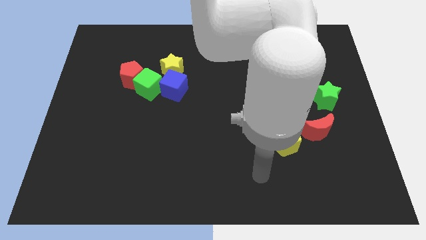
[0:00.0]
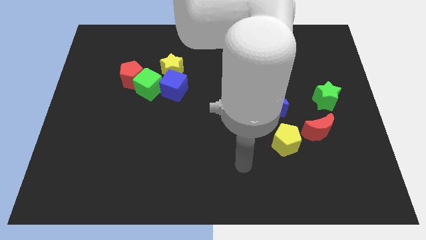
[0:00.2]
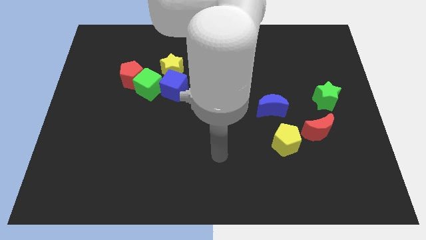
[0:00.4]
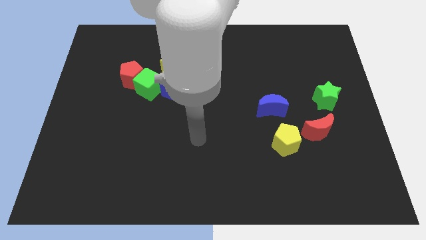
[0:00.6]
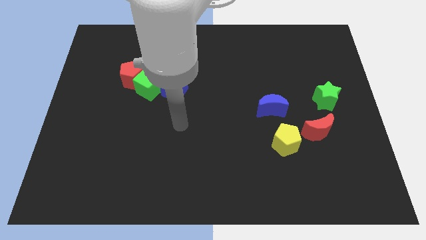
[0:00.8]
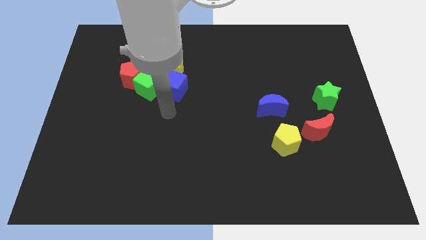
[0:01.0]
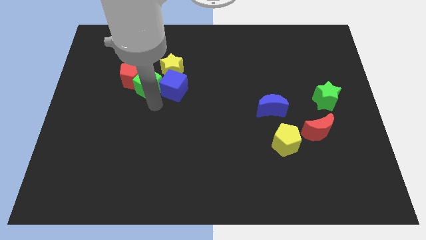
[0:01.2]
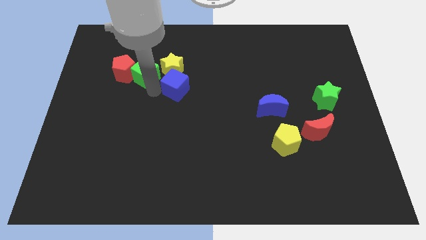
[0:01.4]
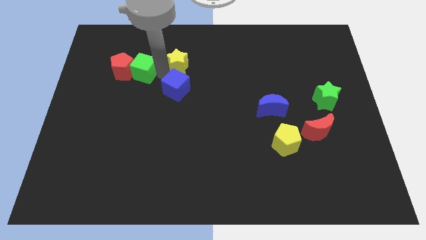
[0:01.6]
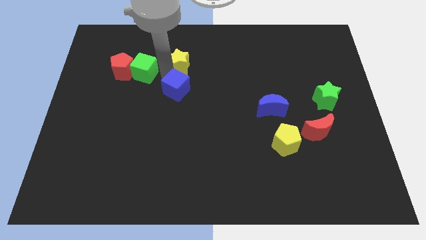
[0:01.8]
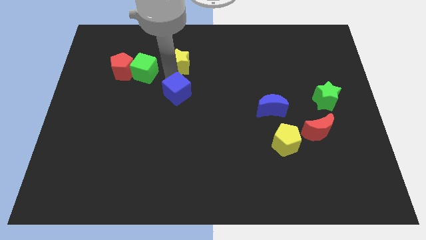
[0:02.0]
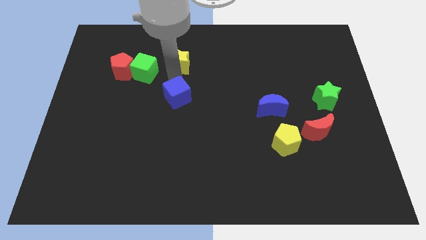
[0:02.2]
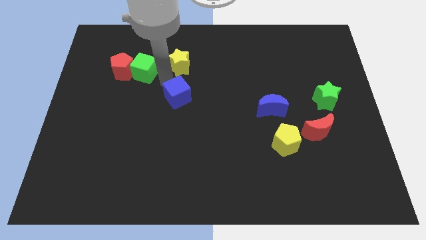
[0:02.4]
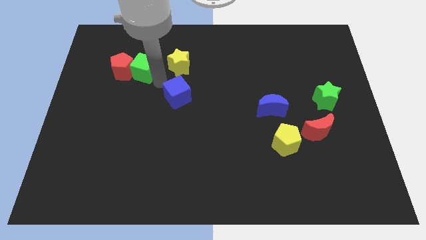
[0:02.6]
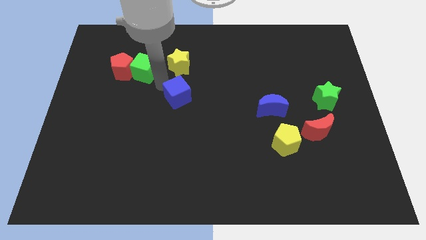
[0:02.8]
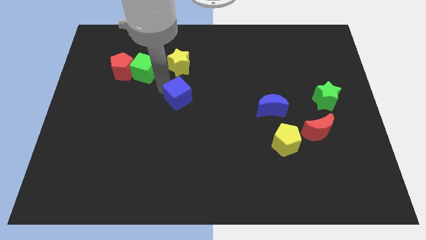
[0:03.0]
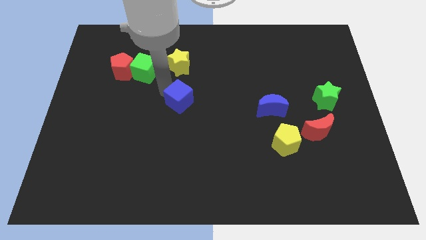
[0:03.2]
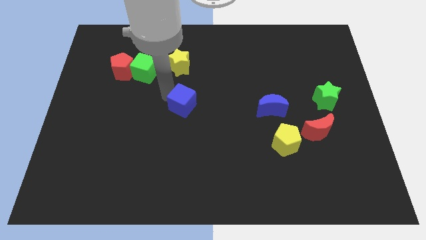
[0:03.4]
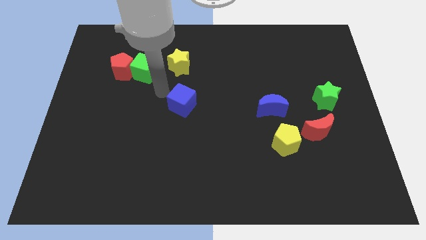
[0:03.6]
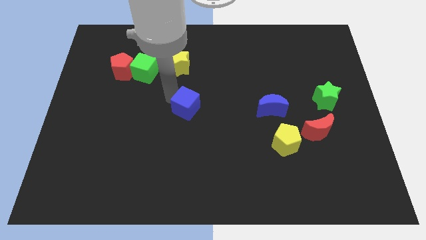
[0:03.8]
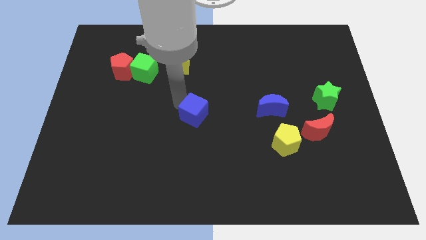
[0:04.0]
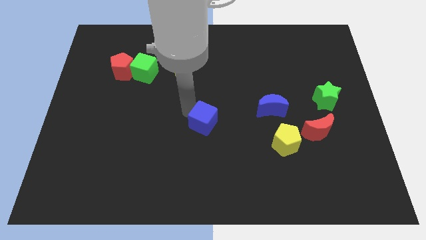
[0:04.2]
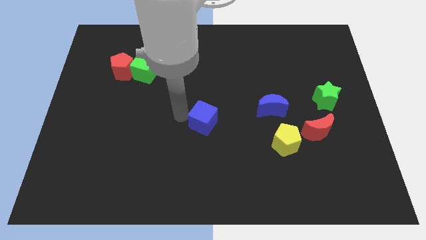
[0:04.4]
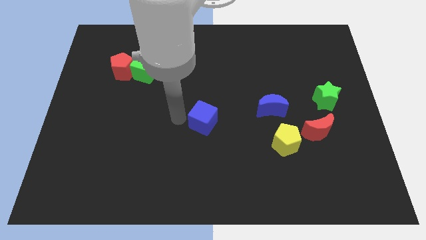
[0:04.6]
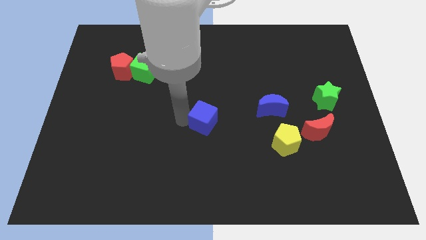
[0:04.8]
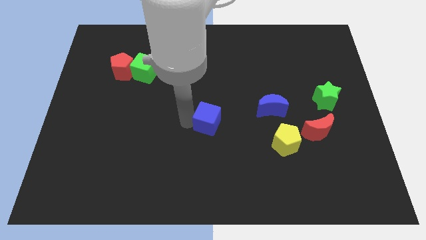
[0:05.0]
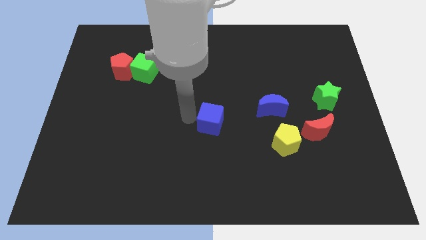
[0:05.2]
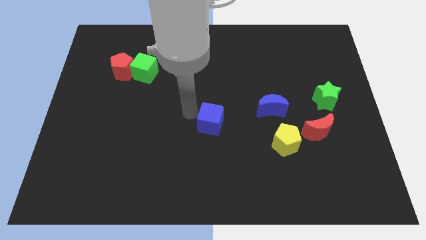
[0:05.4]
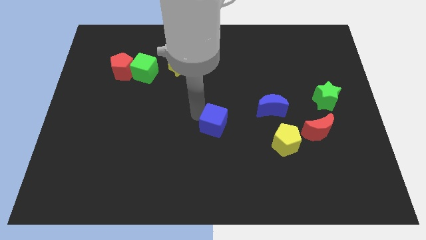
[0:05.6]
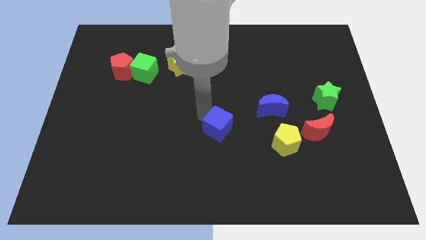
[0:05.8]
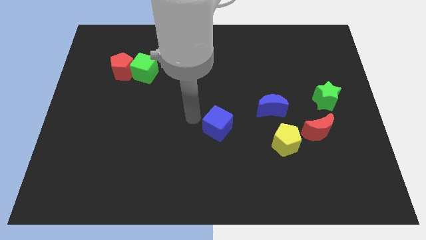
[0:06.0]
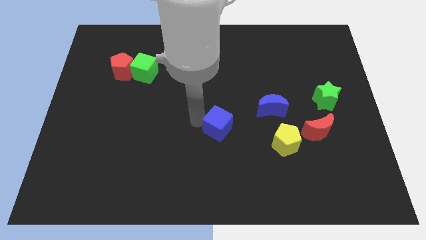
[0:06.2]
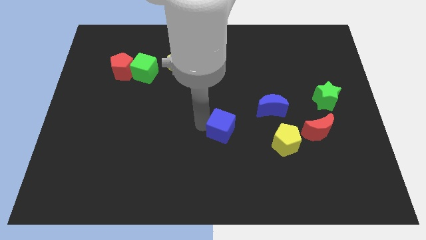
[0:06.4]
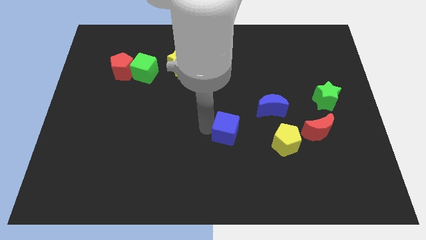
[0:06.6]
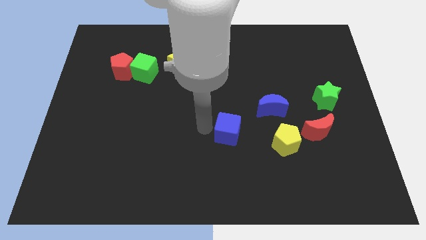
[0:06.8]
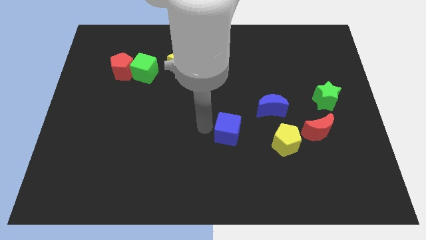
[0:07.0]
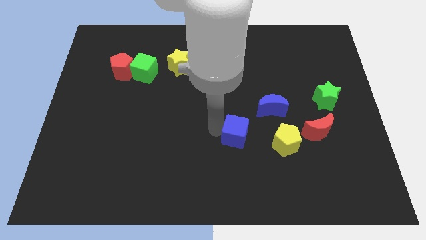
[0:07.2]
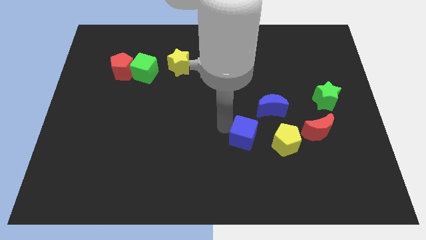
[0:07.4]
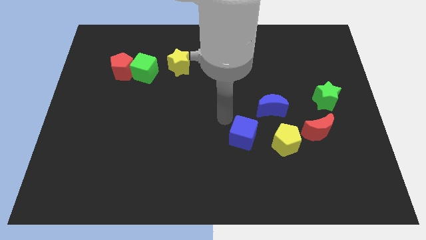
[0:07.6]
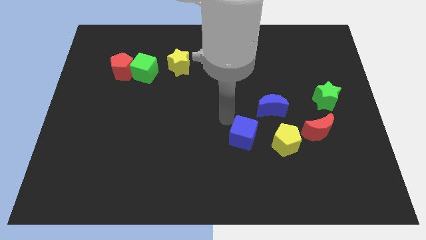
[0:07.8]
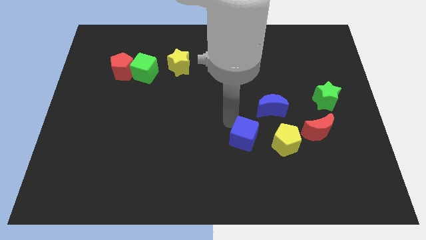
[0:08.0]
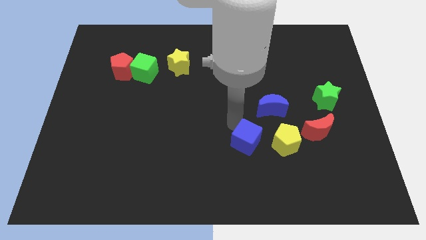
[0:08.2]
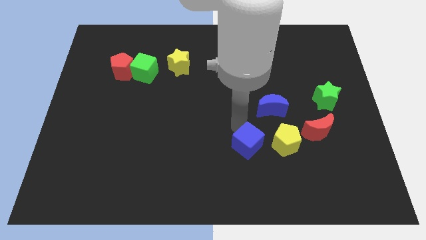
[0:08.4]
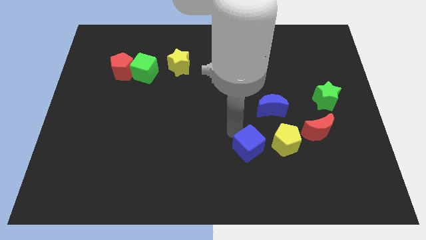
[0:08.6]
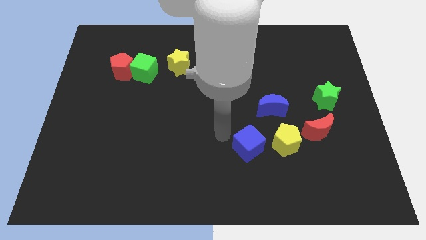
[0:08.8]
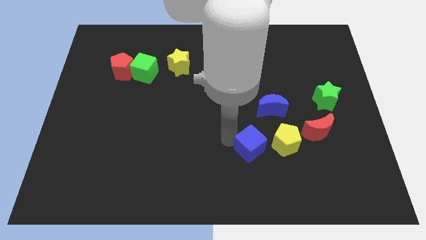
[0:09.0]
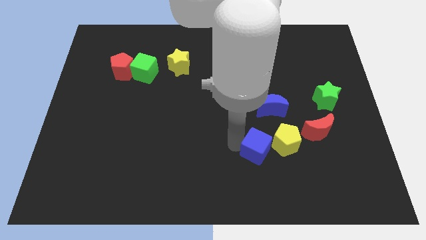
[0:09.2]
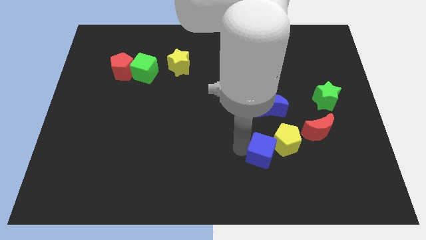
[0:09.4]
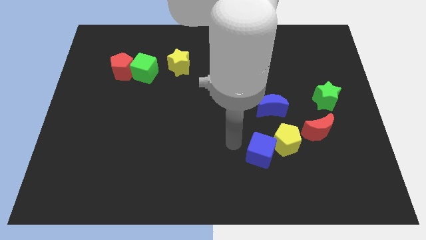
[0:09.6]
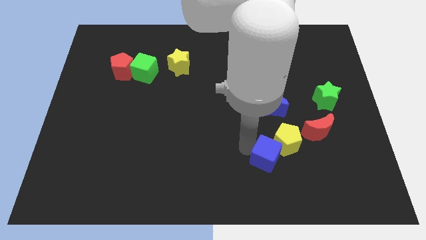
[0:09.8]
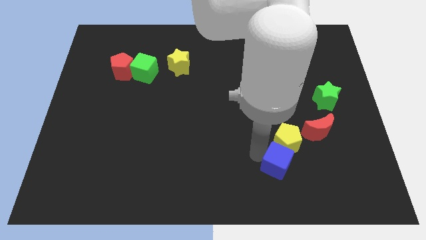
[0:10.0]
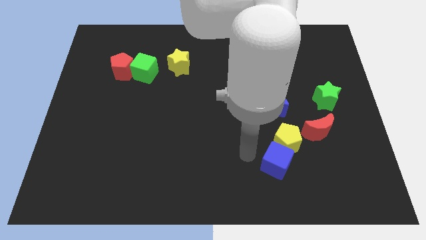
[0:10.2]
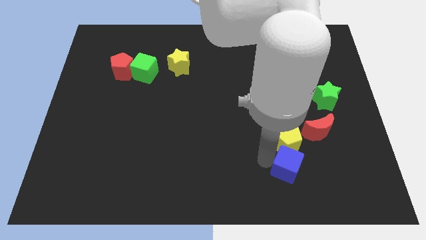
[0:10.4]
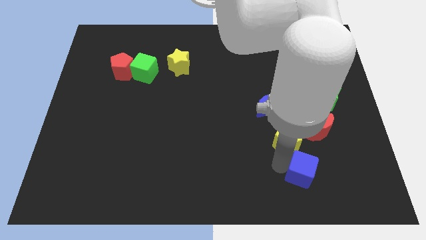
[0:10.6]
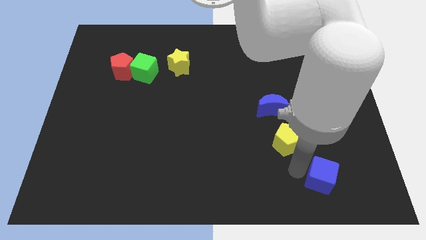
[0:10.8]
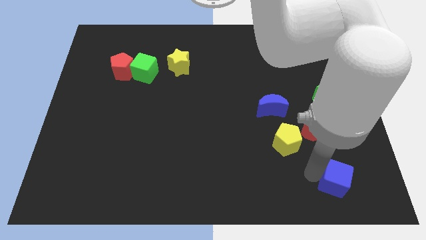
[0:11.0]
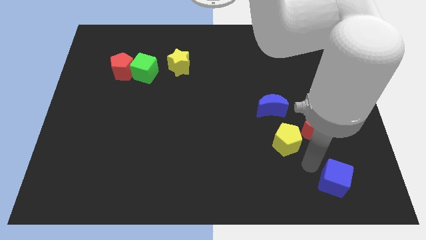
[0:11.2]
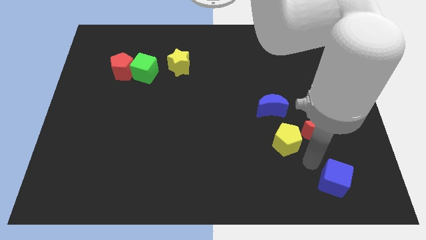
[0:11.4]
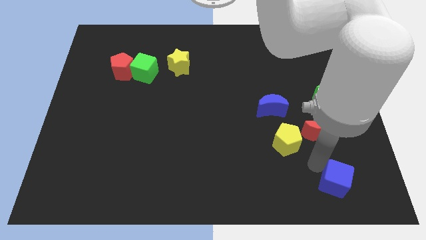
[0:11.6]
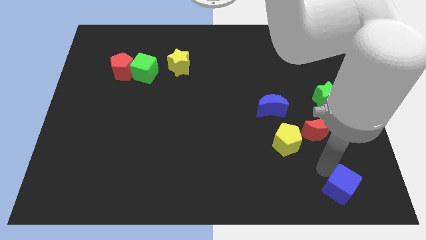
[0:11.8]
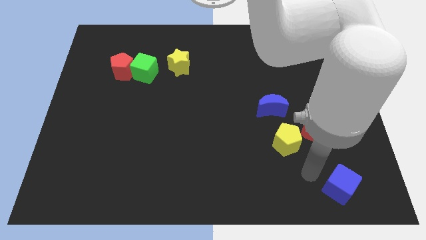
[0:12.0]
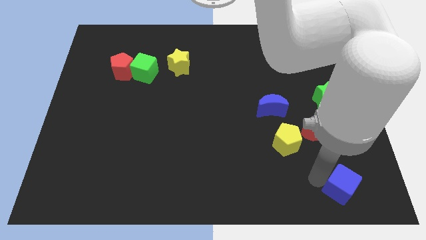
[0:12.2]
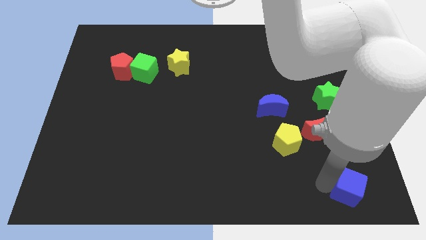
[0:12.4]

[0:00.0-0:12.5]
push the blue cube to the bottom right of the board
